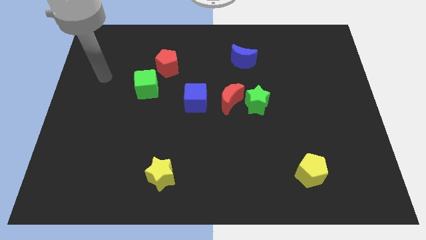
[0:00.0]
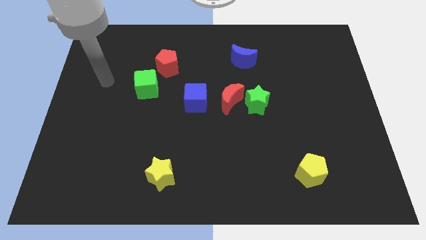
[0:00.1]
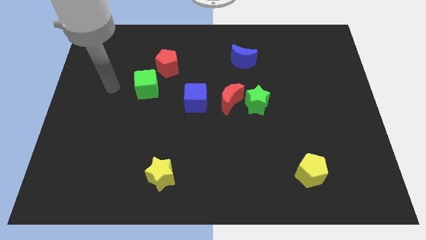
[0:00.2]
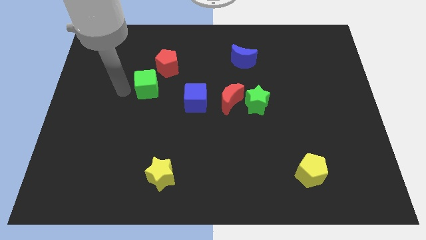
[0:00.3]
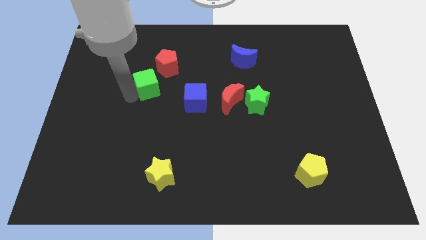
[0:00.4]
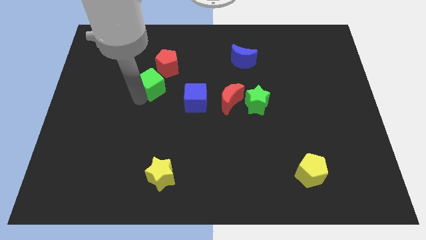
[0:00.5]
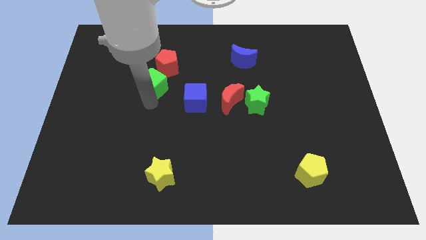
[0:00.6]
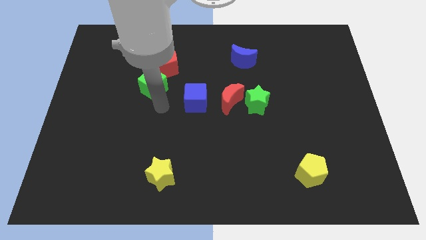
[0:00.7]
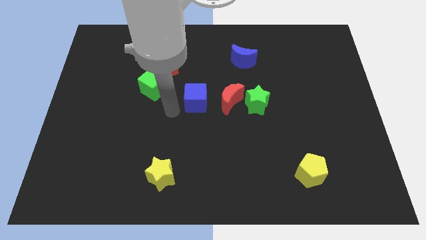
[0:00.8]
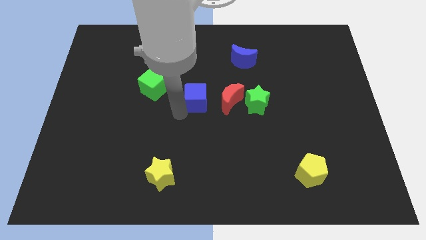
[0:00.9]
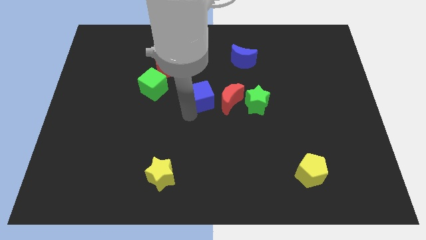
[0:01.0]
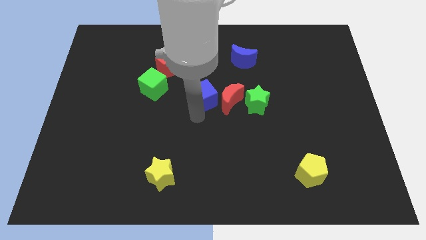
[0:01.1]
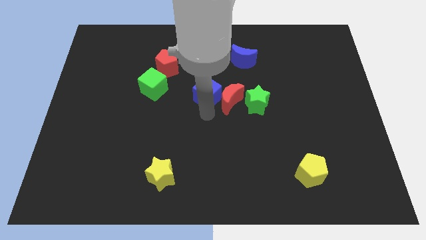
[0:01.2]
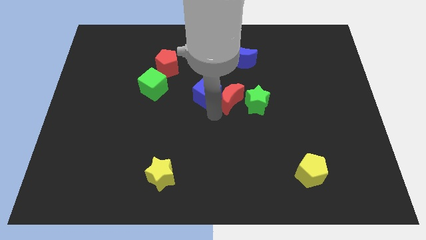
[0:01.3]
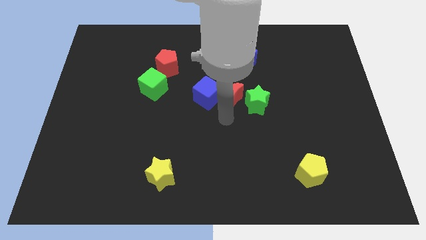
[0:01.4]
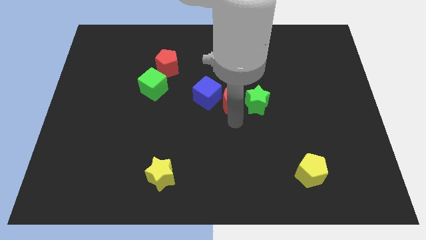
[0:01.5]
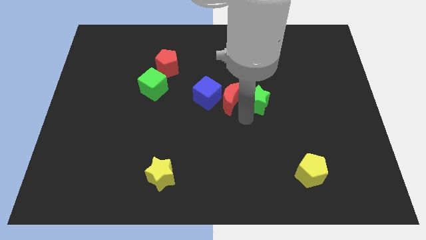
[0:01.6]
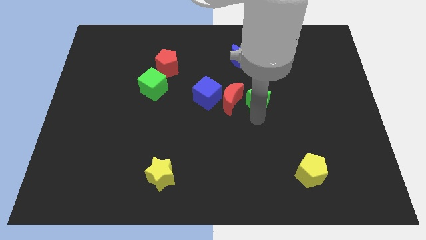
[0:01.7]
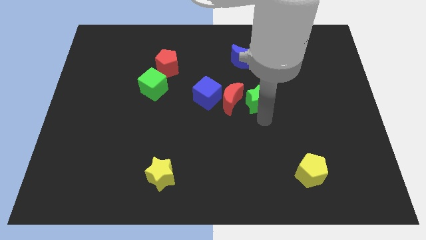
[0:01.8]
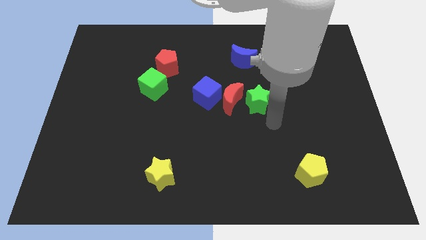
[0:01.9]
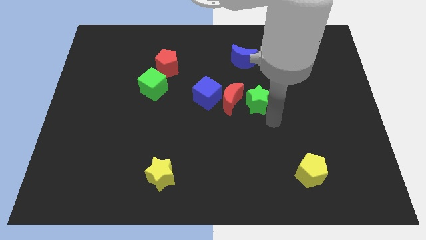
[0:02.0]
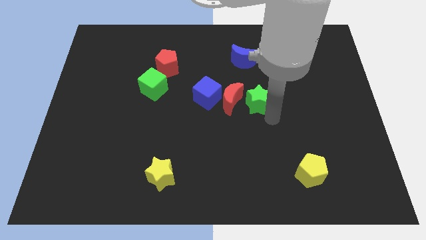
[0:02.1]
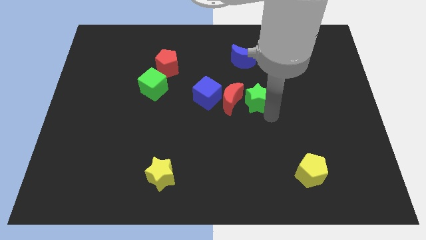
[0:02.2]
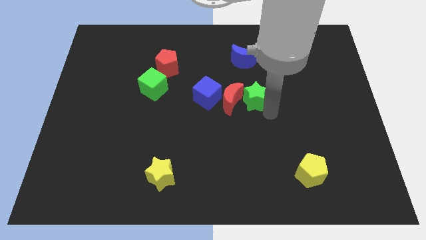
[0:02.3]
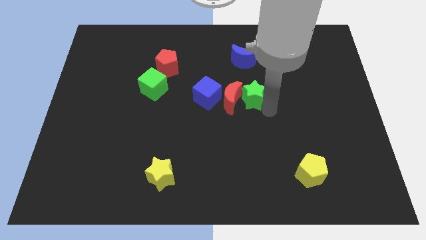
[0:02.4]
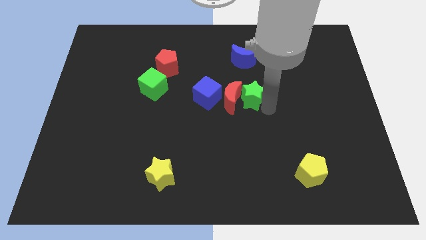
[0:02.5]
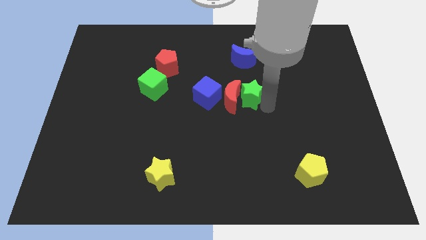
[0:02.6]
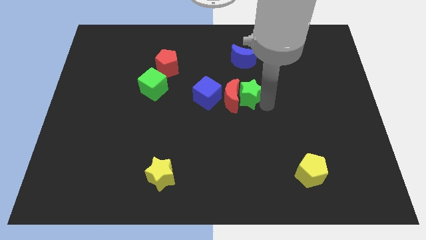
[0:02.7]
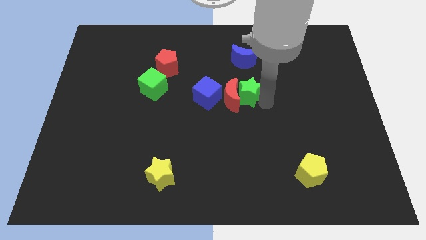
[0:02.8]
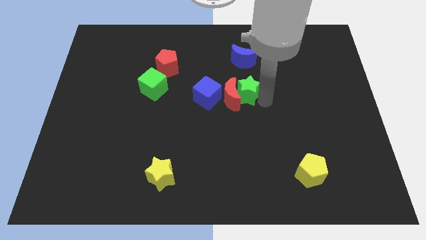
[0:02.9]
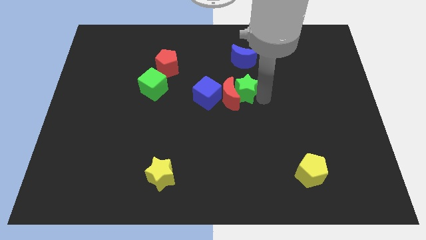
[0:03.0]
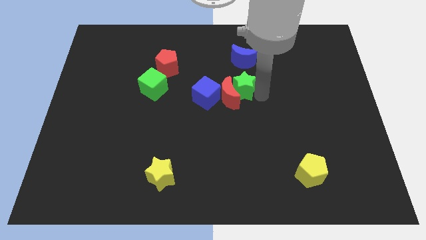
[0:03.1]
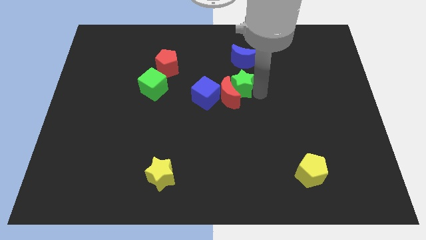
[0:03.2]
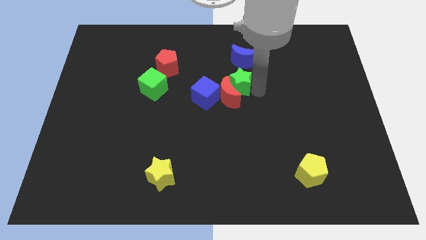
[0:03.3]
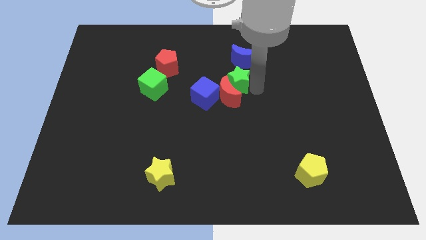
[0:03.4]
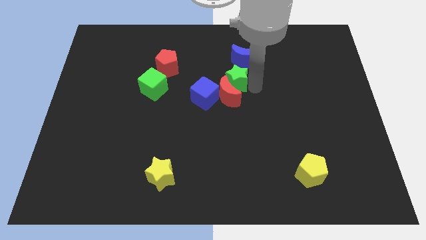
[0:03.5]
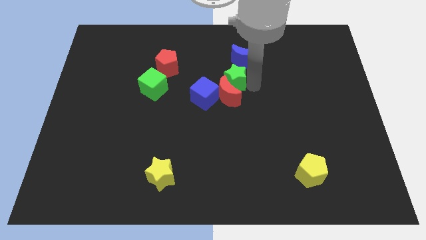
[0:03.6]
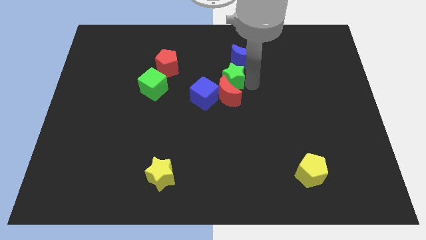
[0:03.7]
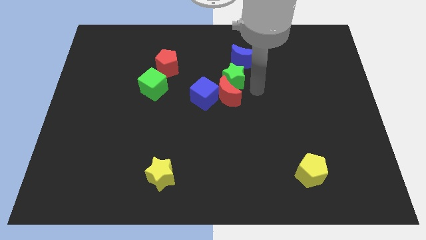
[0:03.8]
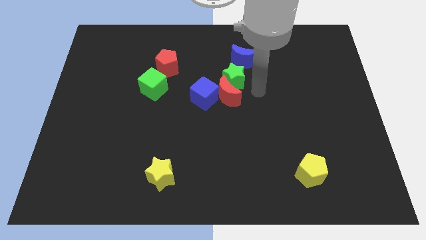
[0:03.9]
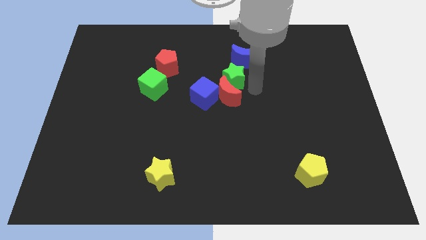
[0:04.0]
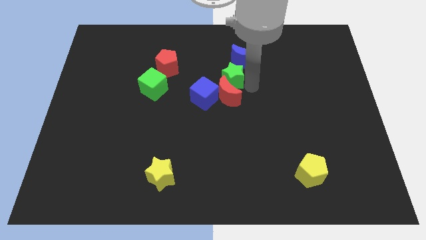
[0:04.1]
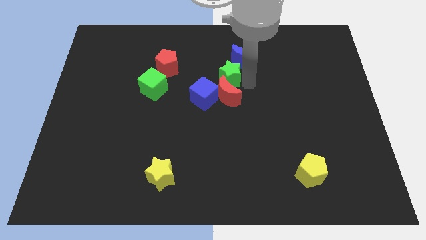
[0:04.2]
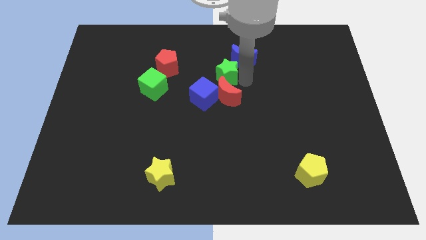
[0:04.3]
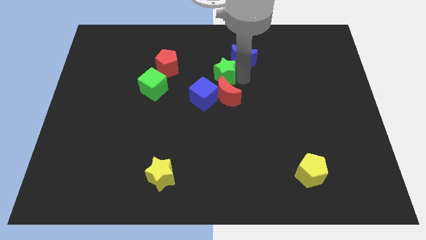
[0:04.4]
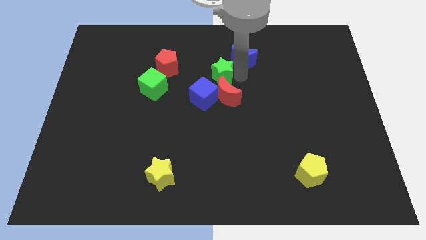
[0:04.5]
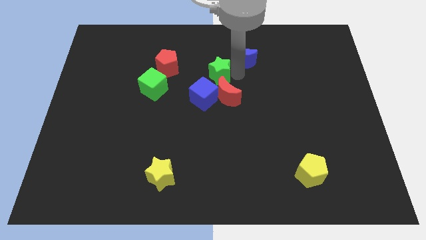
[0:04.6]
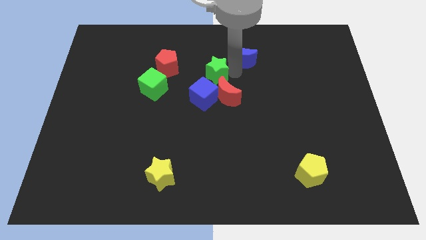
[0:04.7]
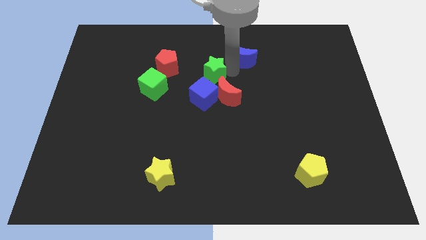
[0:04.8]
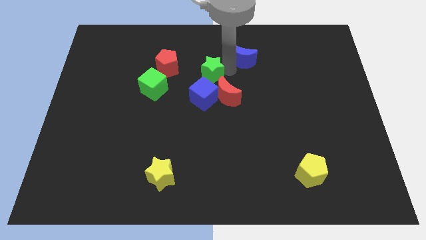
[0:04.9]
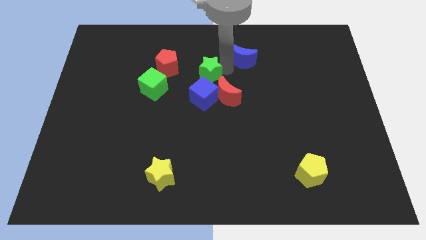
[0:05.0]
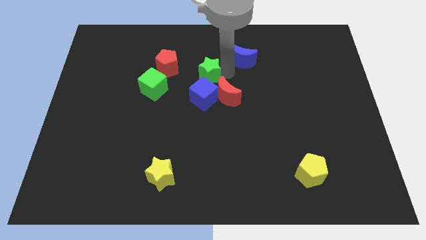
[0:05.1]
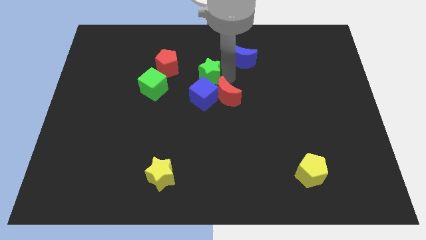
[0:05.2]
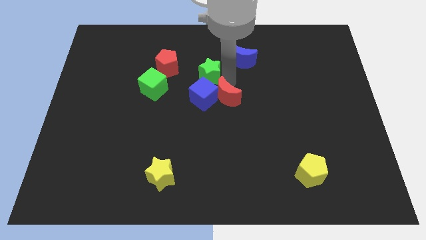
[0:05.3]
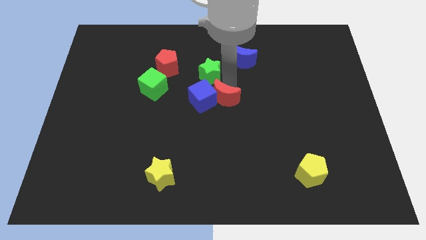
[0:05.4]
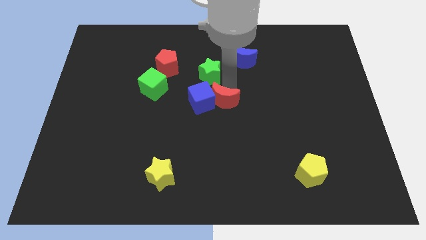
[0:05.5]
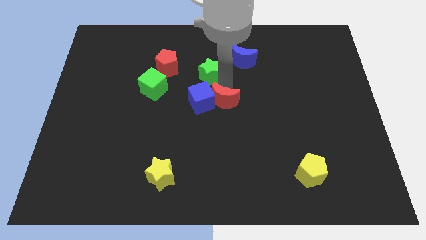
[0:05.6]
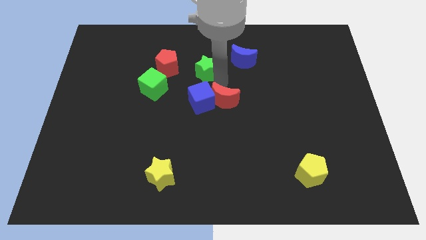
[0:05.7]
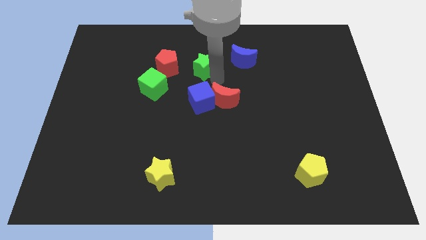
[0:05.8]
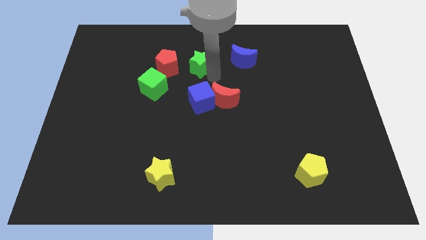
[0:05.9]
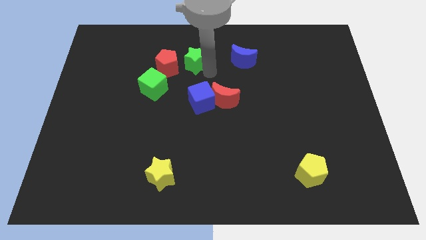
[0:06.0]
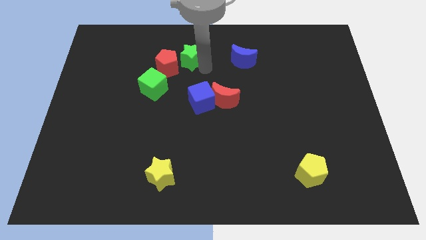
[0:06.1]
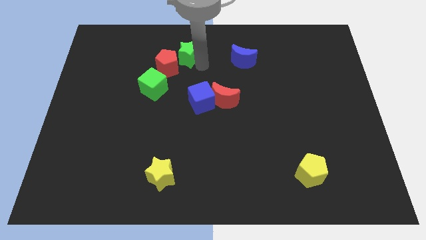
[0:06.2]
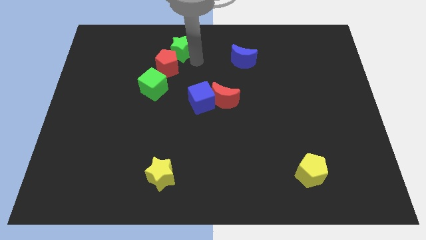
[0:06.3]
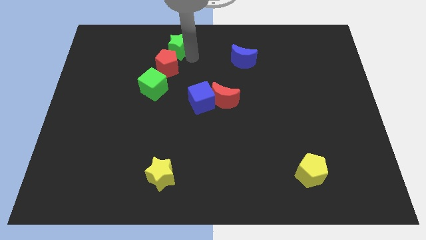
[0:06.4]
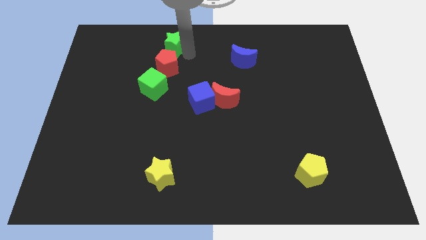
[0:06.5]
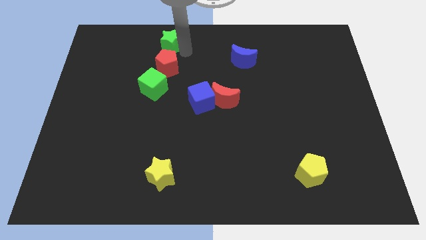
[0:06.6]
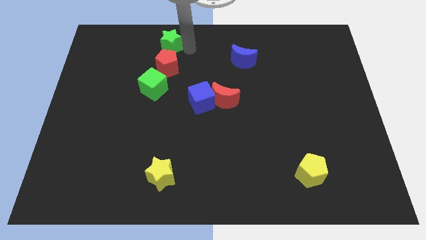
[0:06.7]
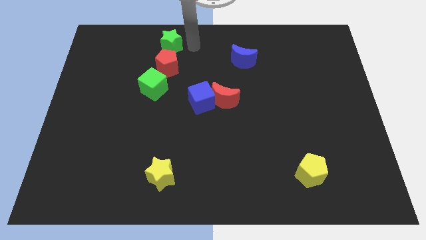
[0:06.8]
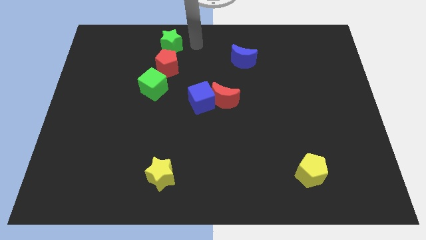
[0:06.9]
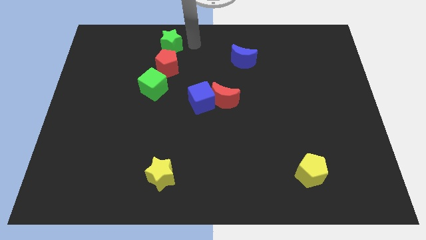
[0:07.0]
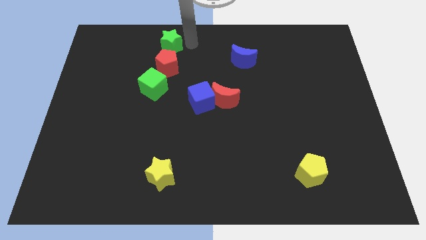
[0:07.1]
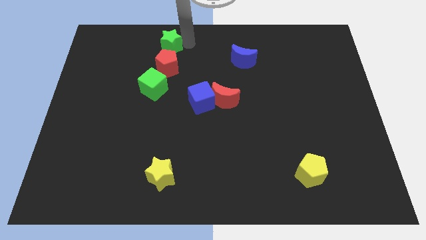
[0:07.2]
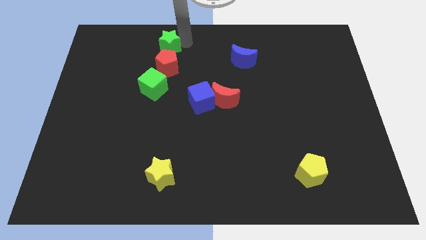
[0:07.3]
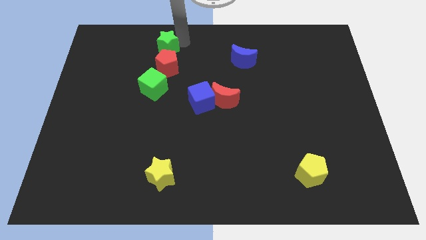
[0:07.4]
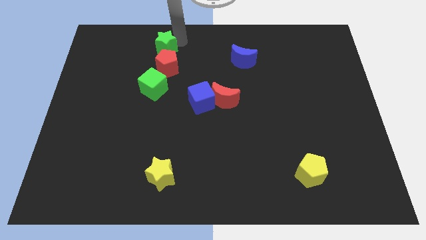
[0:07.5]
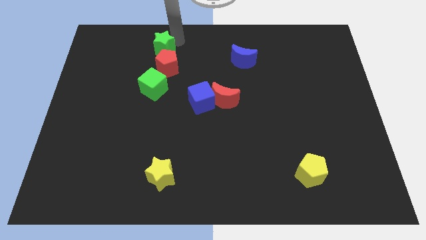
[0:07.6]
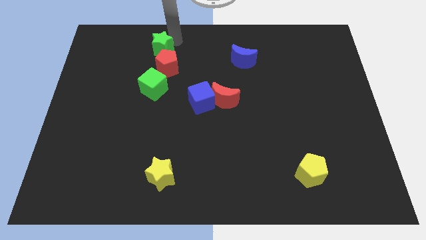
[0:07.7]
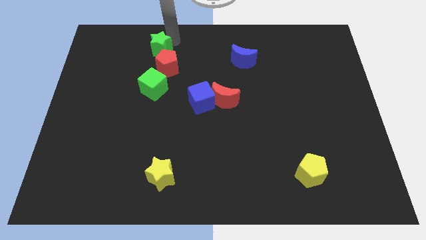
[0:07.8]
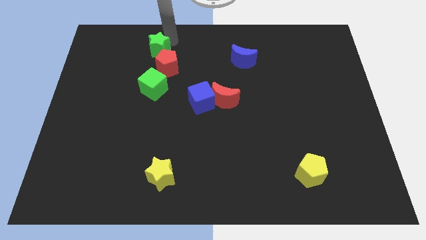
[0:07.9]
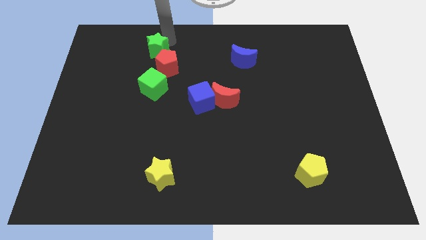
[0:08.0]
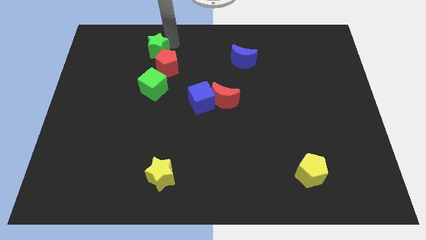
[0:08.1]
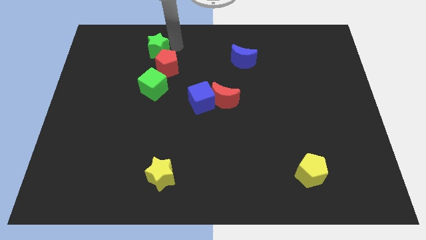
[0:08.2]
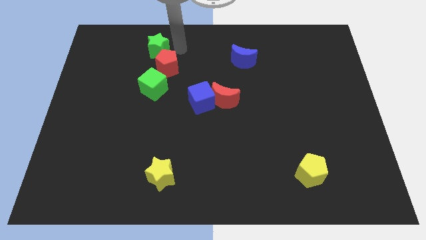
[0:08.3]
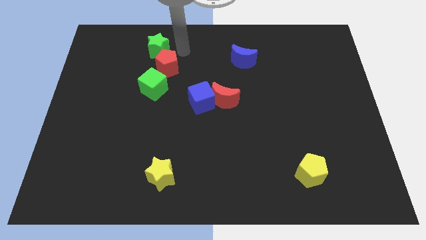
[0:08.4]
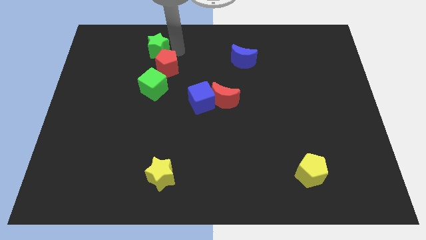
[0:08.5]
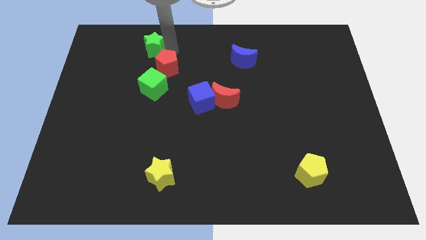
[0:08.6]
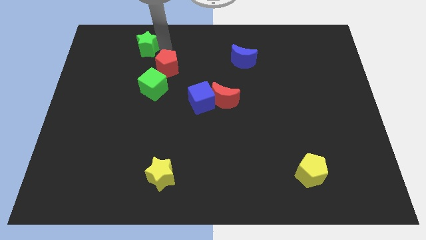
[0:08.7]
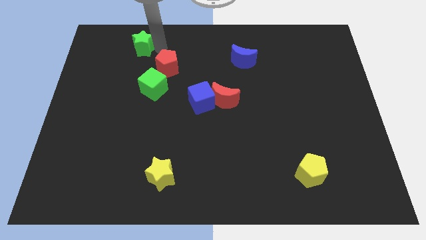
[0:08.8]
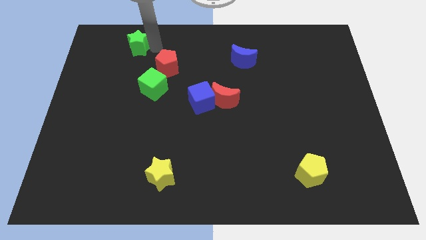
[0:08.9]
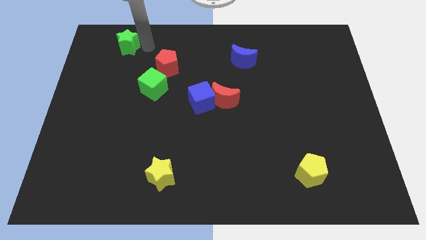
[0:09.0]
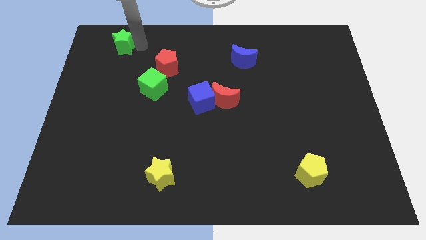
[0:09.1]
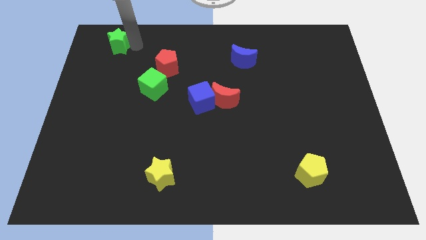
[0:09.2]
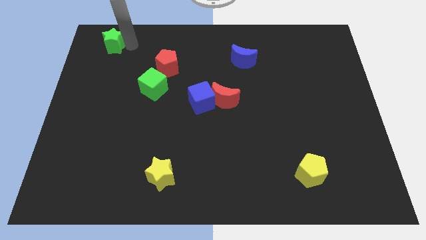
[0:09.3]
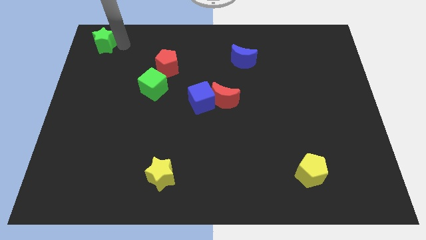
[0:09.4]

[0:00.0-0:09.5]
move the green star to the top left
